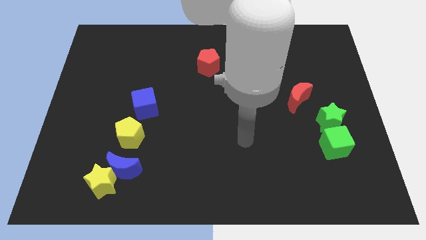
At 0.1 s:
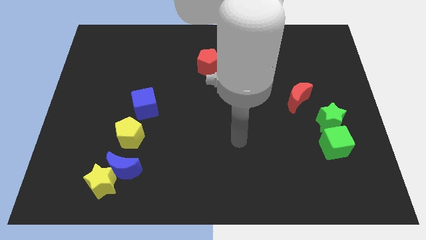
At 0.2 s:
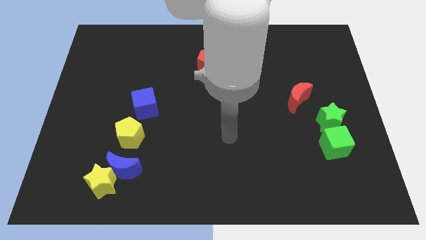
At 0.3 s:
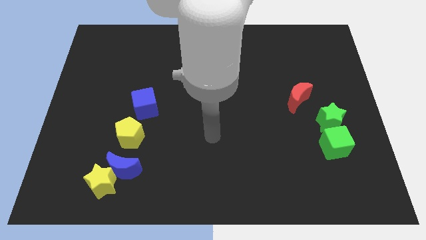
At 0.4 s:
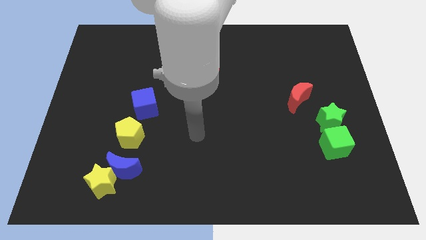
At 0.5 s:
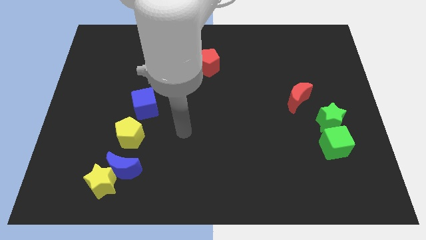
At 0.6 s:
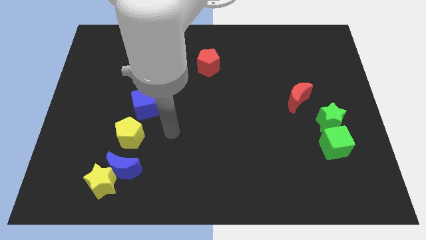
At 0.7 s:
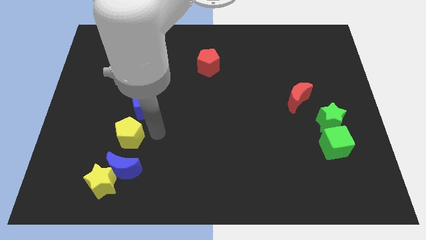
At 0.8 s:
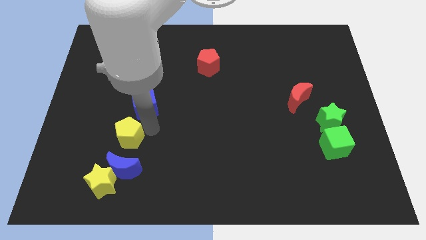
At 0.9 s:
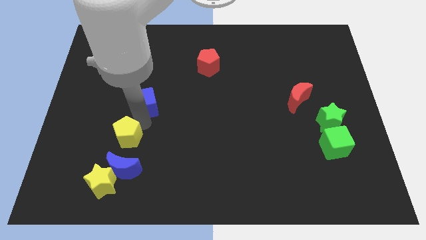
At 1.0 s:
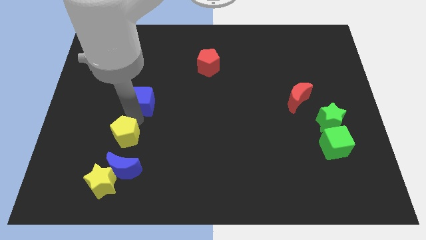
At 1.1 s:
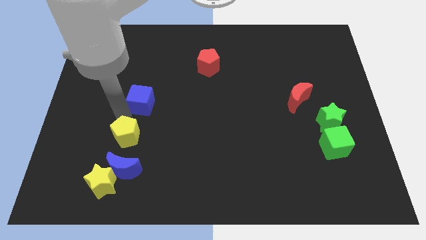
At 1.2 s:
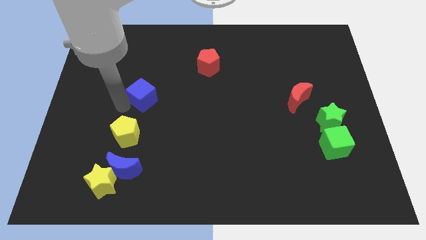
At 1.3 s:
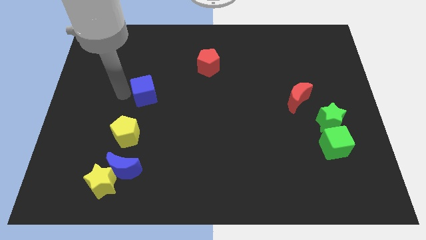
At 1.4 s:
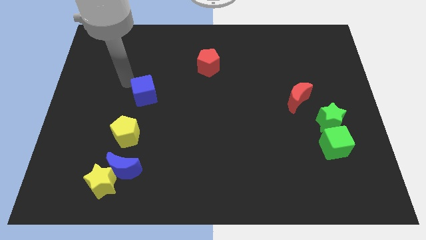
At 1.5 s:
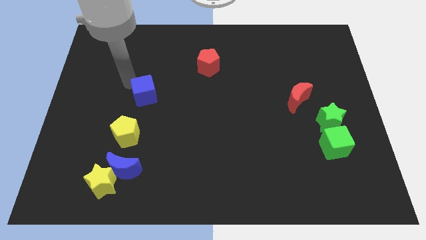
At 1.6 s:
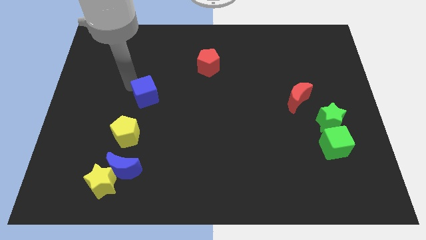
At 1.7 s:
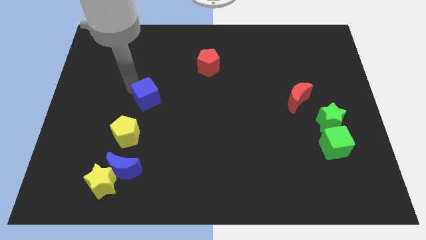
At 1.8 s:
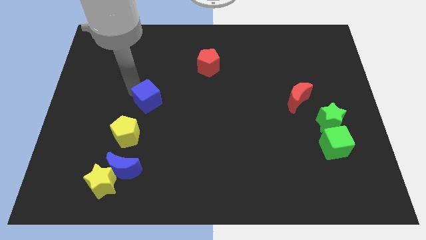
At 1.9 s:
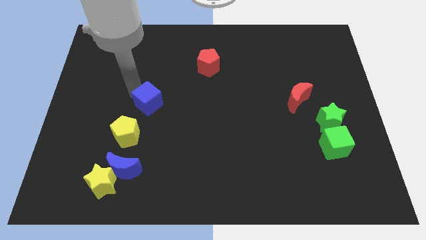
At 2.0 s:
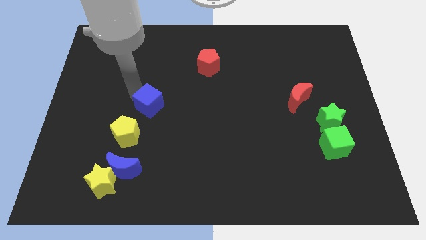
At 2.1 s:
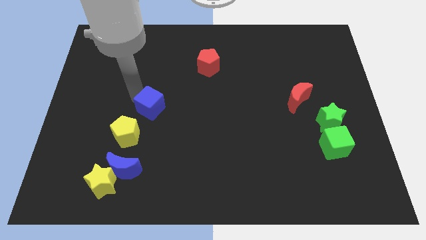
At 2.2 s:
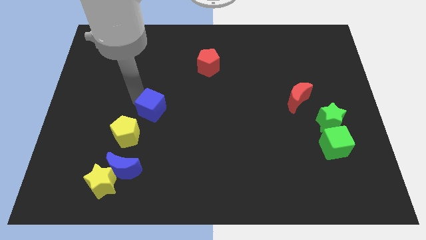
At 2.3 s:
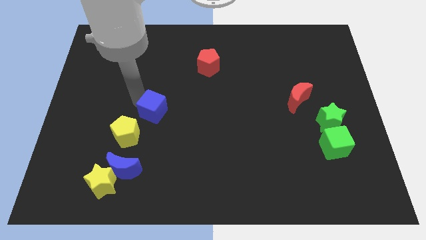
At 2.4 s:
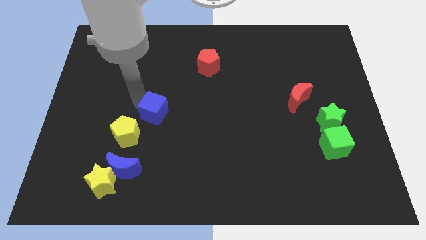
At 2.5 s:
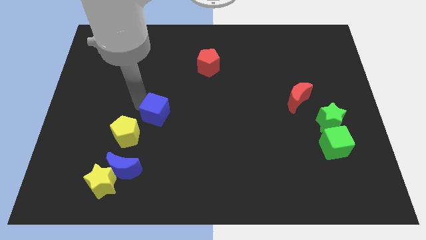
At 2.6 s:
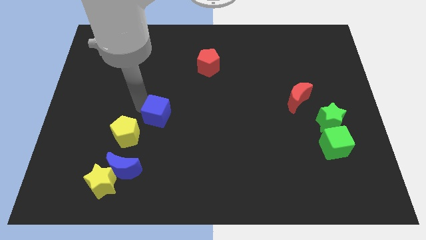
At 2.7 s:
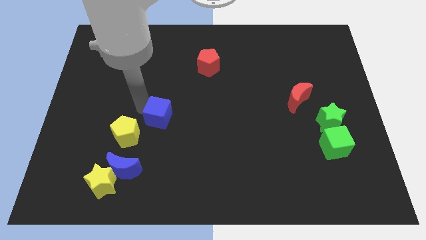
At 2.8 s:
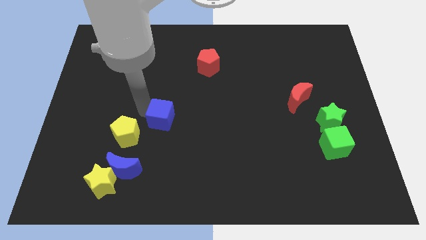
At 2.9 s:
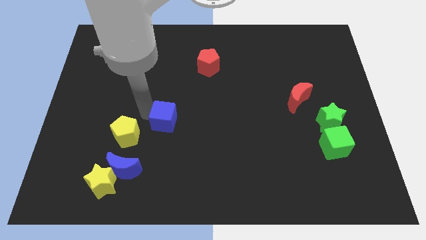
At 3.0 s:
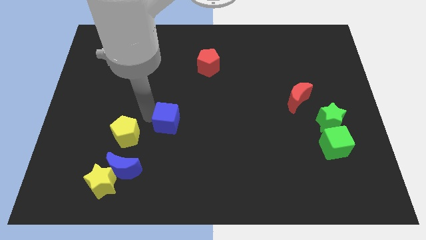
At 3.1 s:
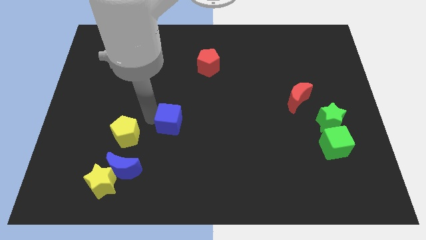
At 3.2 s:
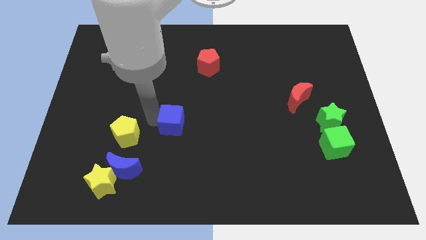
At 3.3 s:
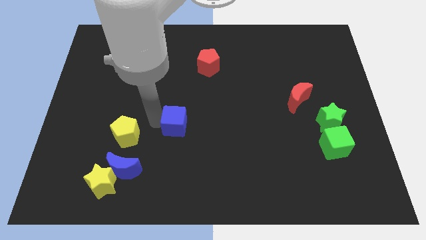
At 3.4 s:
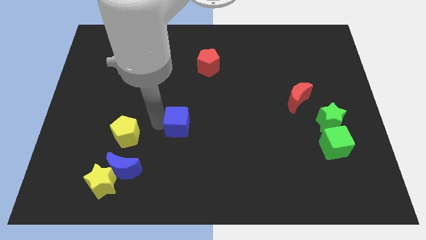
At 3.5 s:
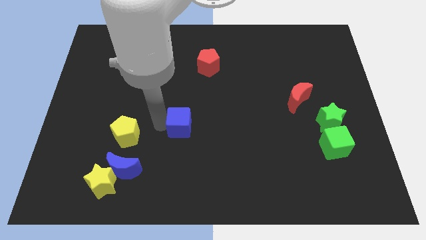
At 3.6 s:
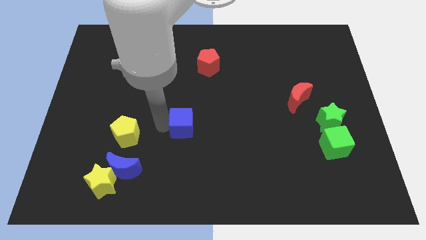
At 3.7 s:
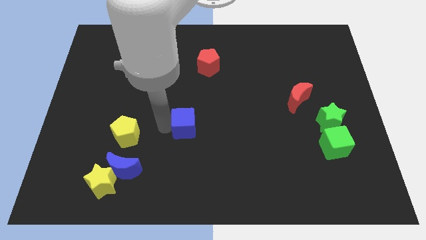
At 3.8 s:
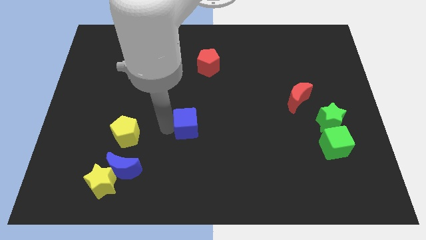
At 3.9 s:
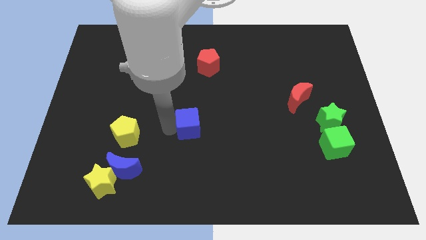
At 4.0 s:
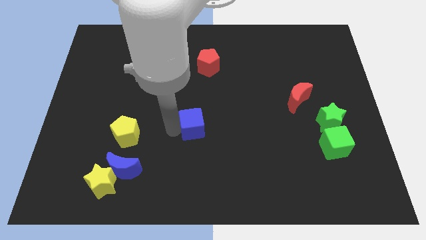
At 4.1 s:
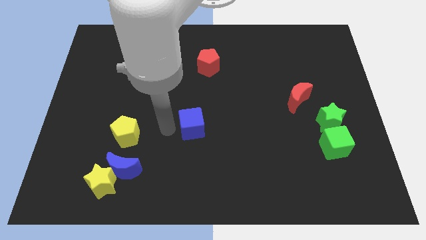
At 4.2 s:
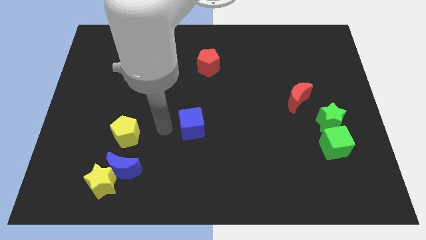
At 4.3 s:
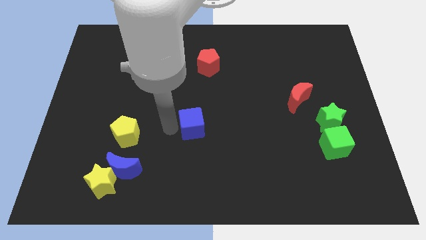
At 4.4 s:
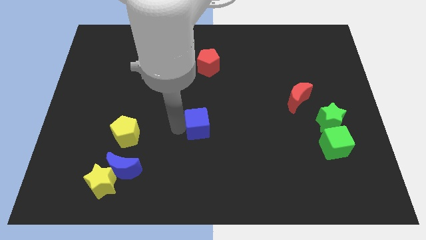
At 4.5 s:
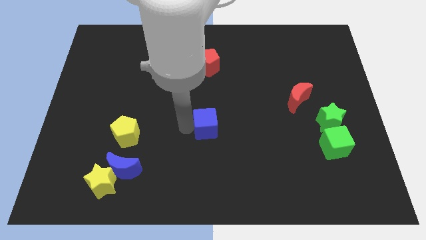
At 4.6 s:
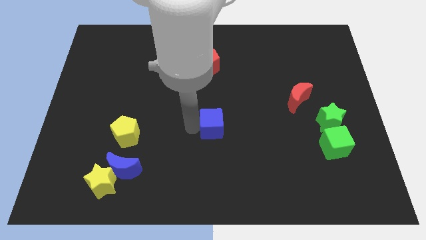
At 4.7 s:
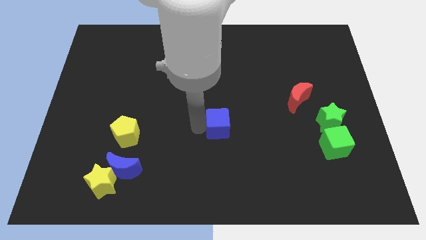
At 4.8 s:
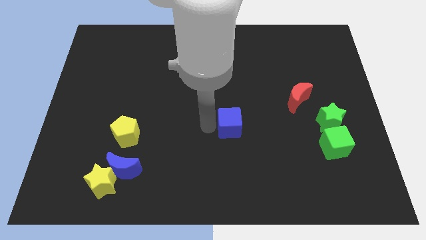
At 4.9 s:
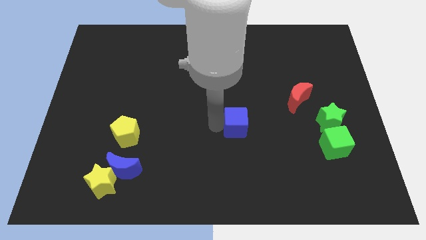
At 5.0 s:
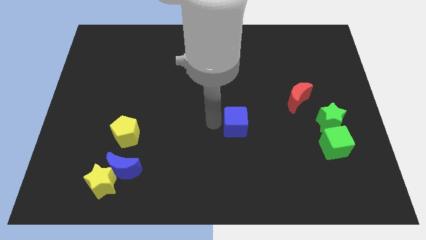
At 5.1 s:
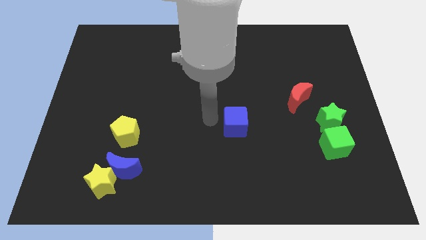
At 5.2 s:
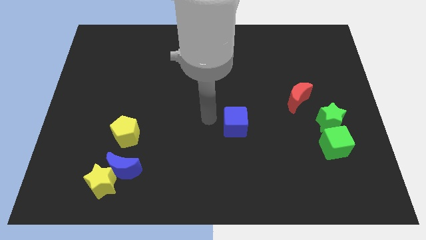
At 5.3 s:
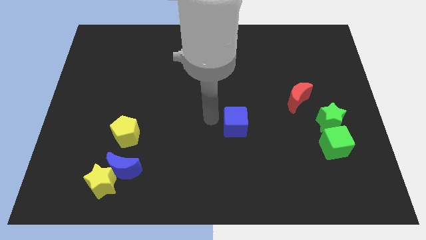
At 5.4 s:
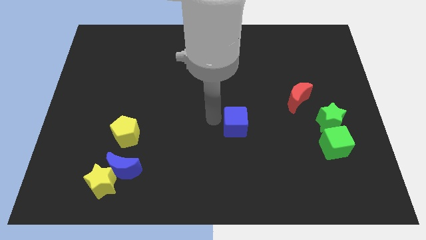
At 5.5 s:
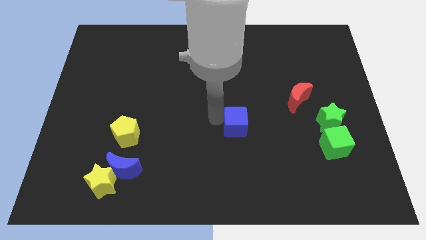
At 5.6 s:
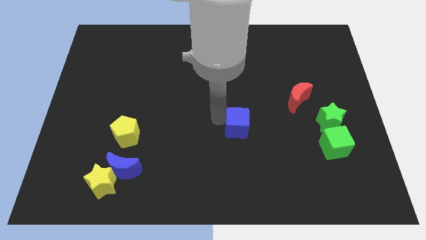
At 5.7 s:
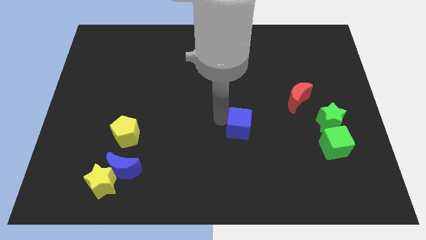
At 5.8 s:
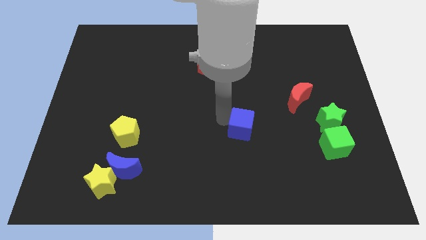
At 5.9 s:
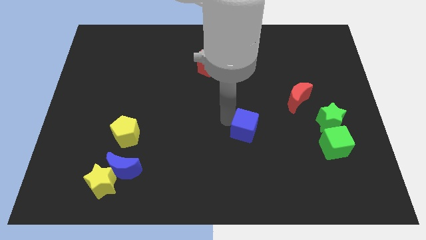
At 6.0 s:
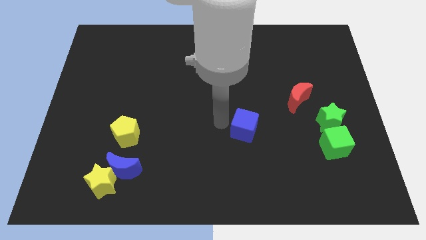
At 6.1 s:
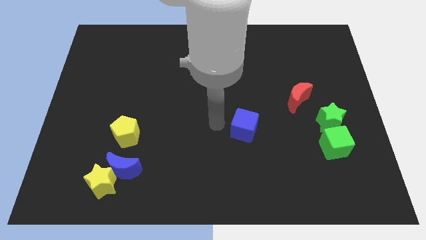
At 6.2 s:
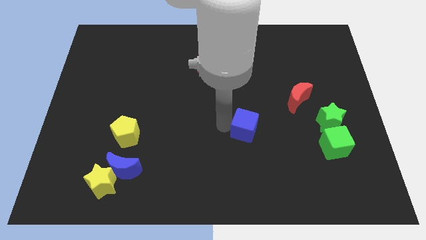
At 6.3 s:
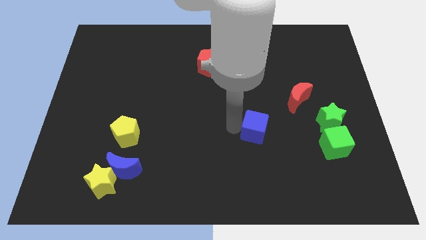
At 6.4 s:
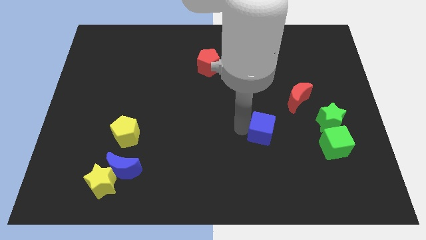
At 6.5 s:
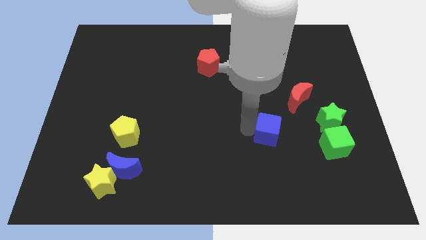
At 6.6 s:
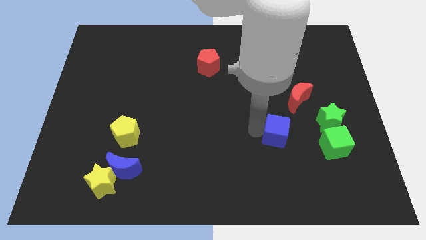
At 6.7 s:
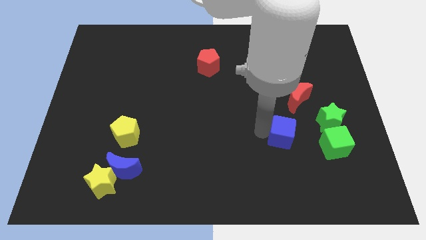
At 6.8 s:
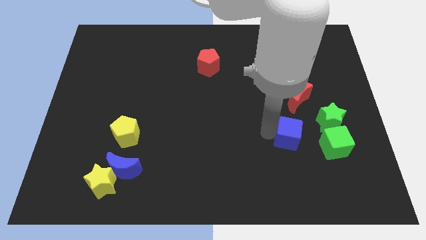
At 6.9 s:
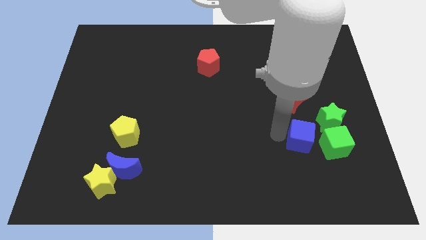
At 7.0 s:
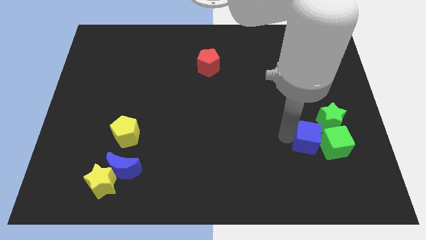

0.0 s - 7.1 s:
push the blue cube next to the green cube
